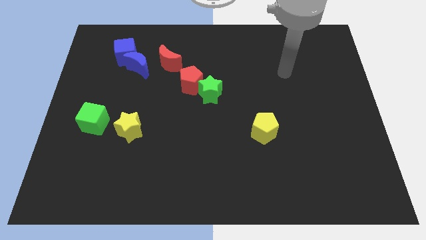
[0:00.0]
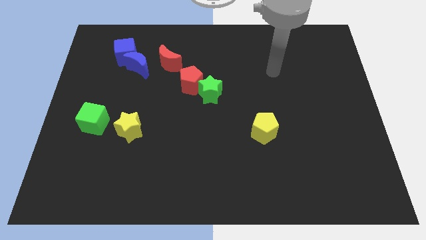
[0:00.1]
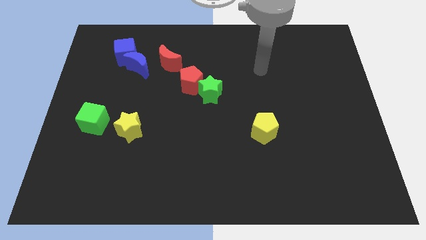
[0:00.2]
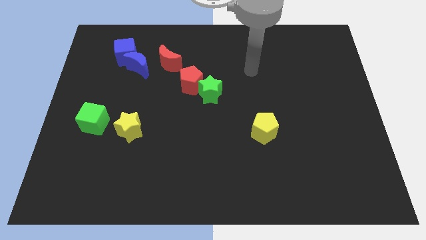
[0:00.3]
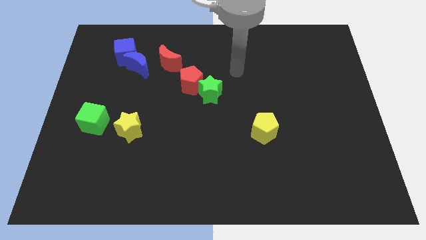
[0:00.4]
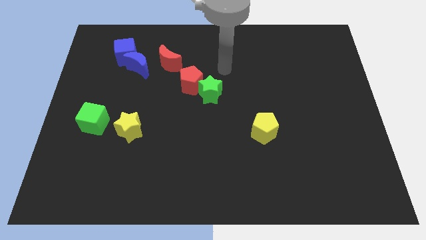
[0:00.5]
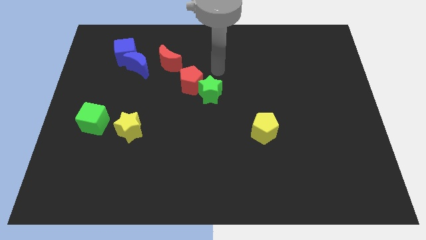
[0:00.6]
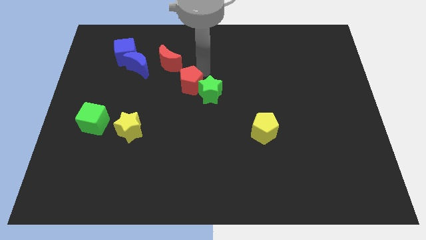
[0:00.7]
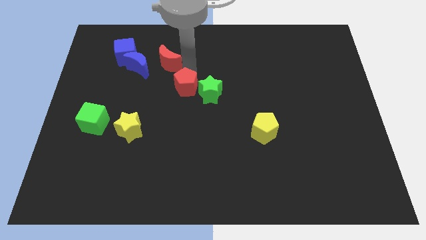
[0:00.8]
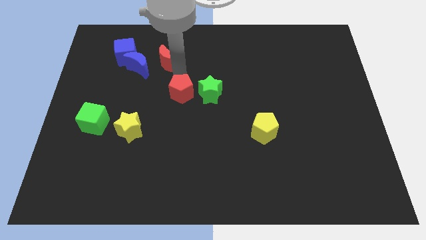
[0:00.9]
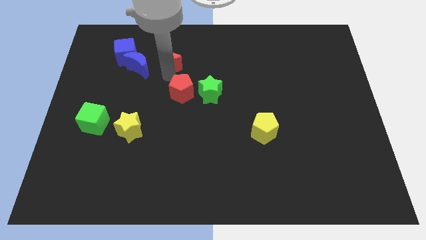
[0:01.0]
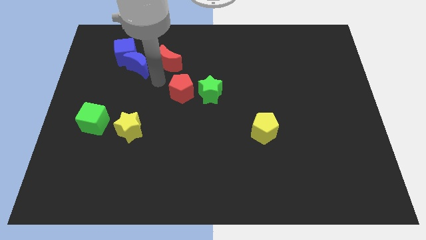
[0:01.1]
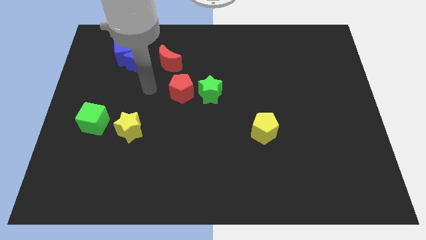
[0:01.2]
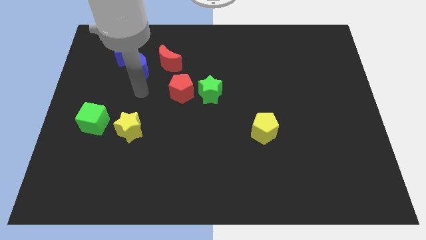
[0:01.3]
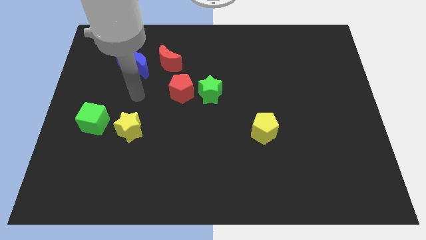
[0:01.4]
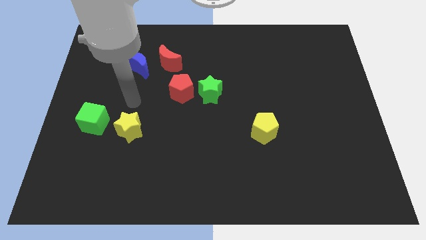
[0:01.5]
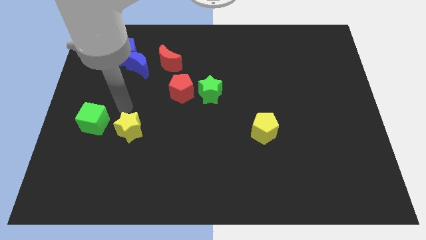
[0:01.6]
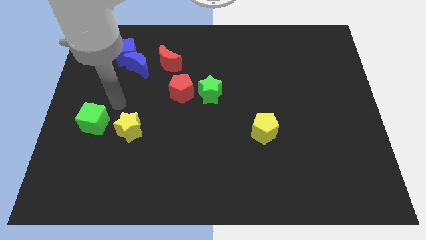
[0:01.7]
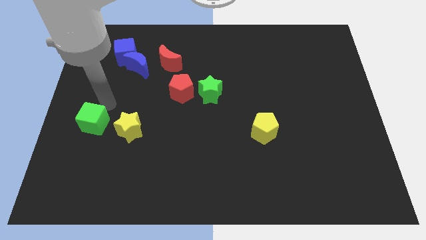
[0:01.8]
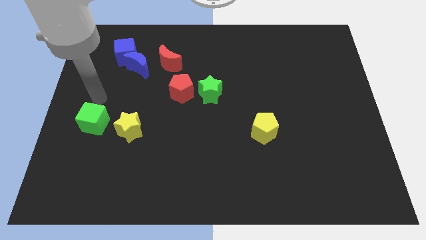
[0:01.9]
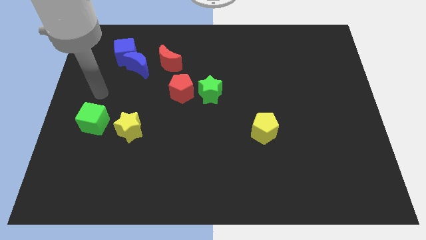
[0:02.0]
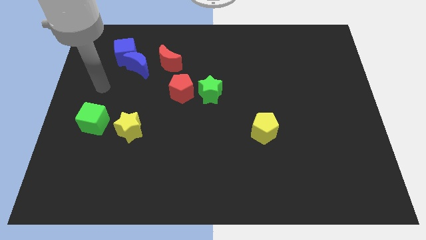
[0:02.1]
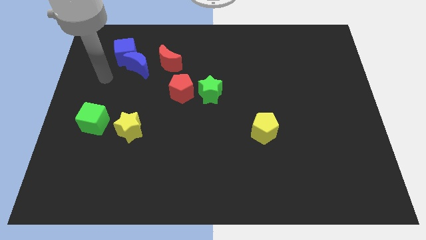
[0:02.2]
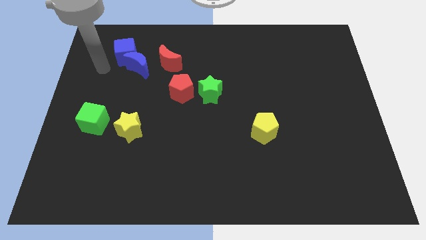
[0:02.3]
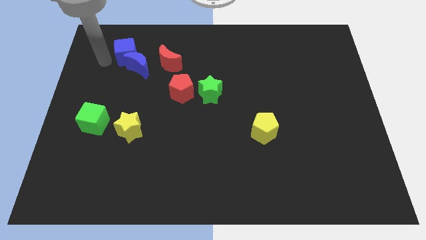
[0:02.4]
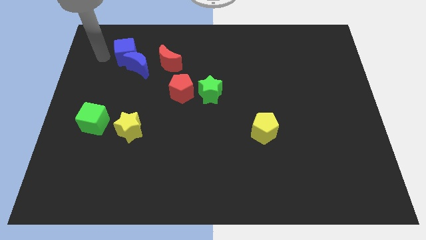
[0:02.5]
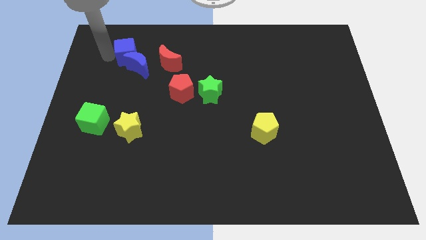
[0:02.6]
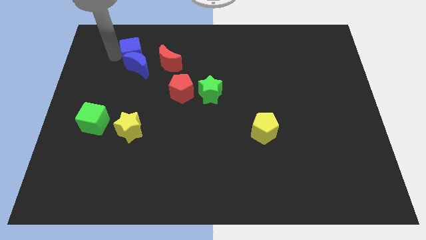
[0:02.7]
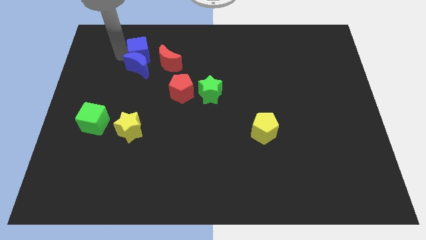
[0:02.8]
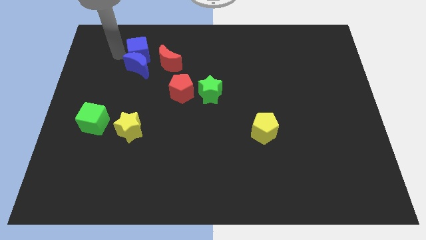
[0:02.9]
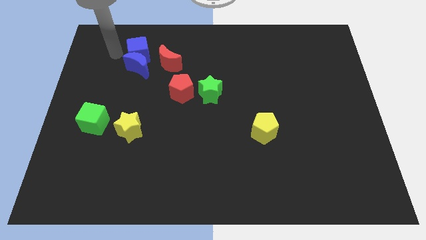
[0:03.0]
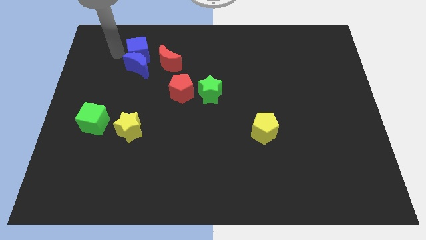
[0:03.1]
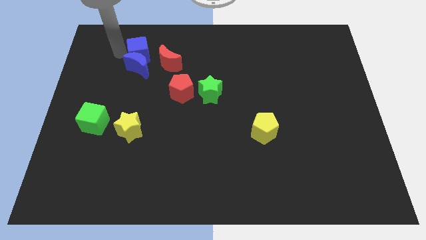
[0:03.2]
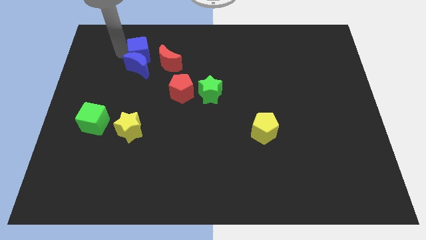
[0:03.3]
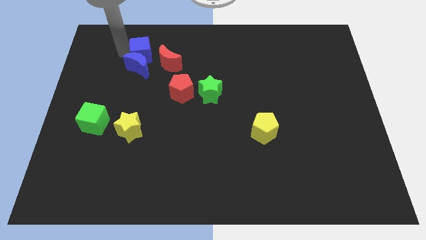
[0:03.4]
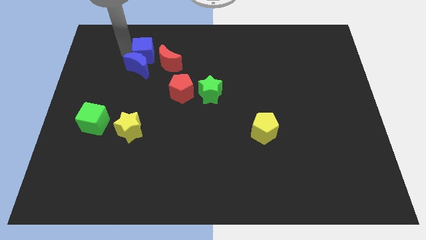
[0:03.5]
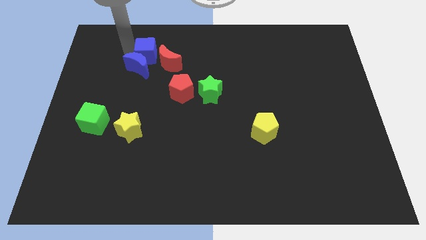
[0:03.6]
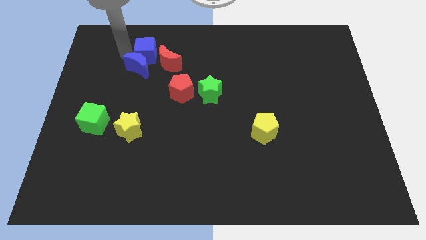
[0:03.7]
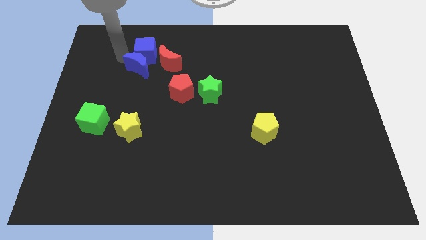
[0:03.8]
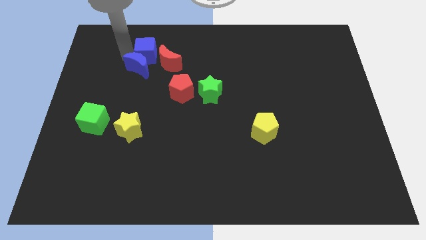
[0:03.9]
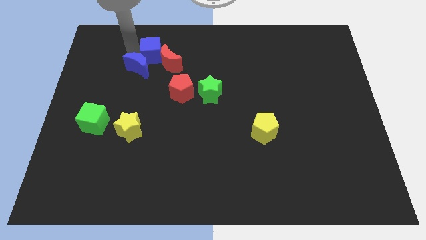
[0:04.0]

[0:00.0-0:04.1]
slide the blue cube right a little

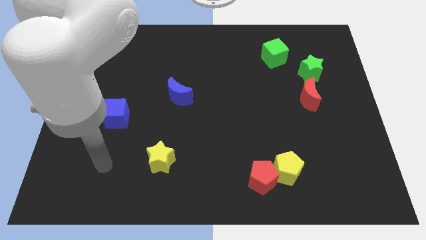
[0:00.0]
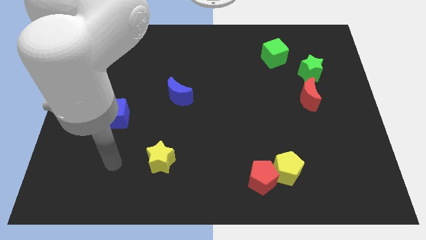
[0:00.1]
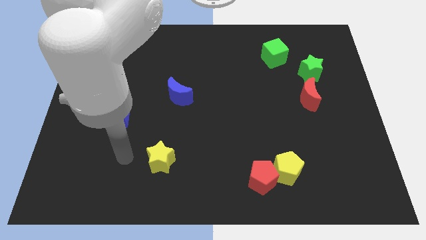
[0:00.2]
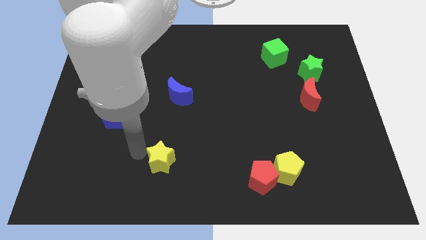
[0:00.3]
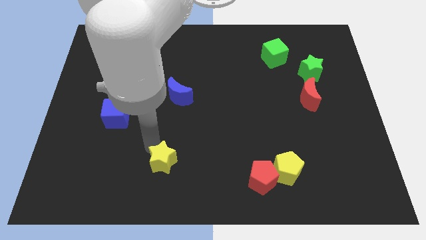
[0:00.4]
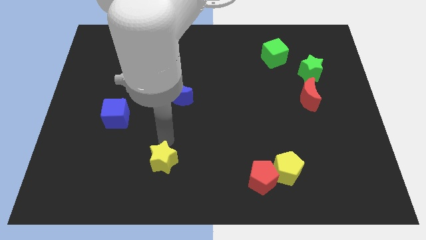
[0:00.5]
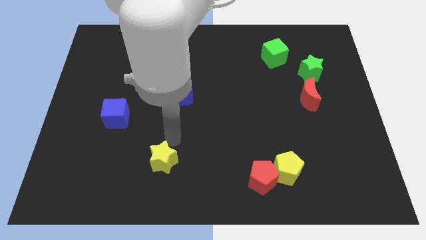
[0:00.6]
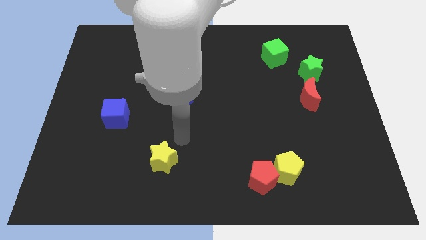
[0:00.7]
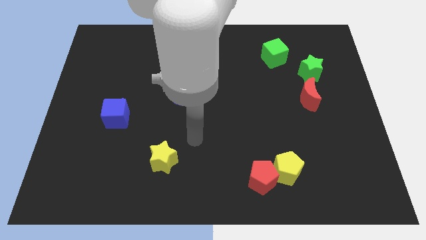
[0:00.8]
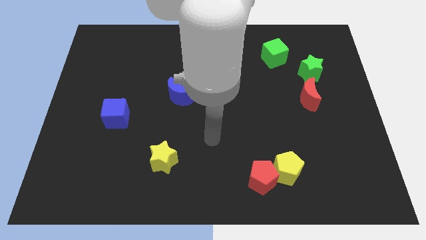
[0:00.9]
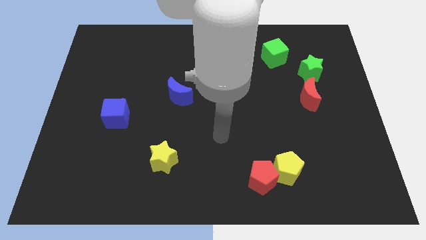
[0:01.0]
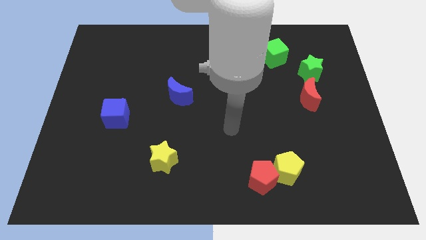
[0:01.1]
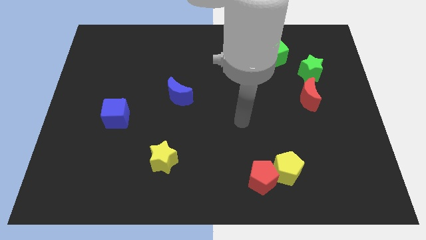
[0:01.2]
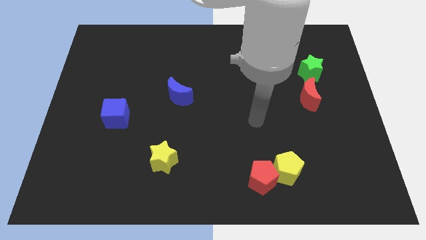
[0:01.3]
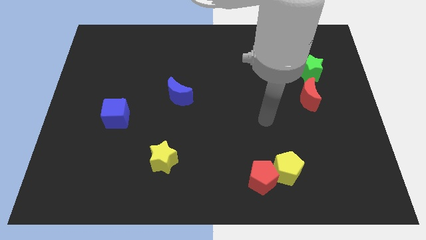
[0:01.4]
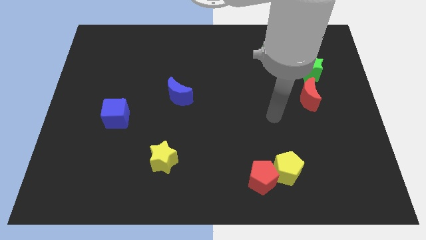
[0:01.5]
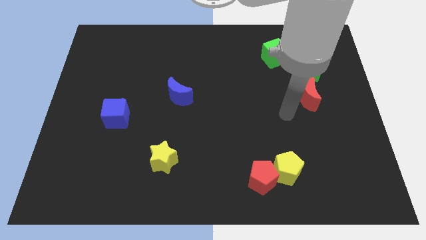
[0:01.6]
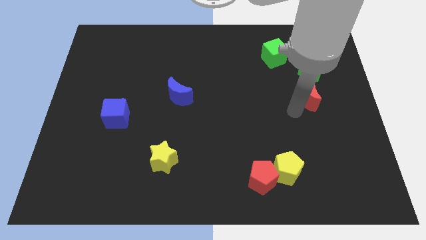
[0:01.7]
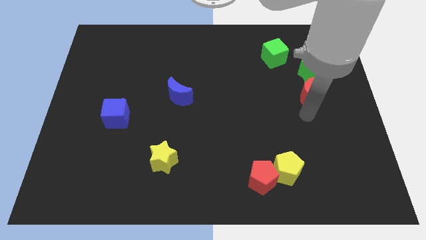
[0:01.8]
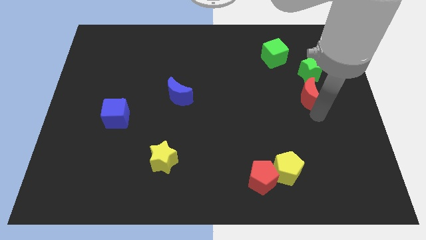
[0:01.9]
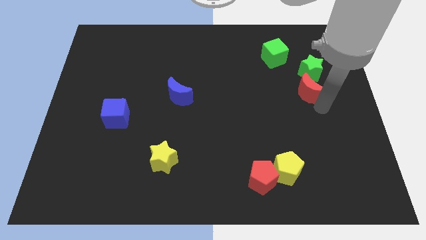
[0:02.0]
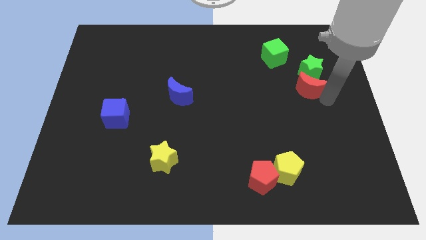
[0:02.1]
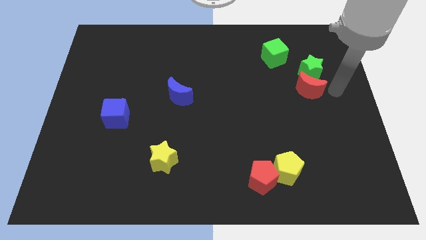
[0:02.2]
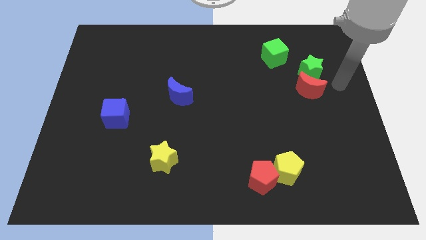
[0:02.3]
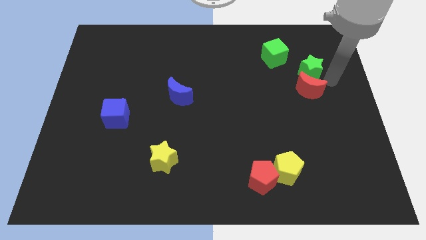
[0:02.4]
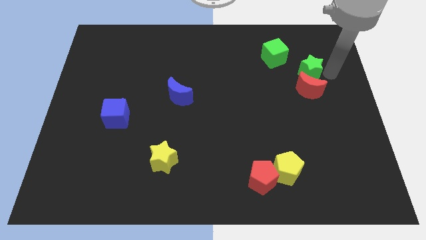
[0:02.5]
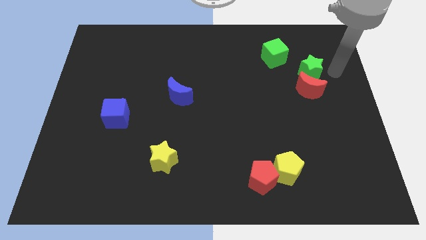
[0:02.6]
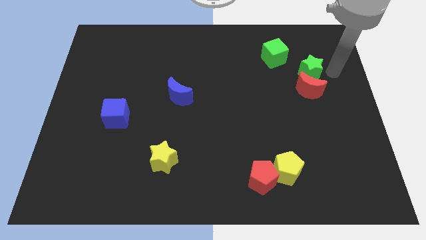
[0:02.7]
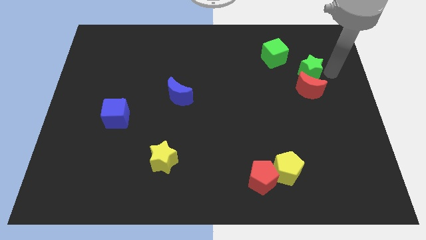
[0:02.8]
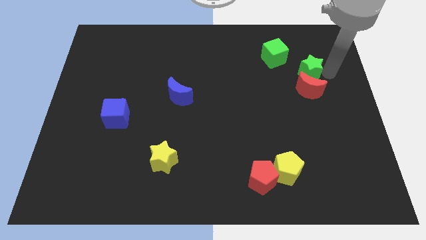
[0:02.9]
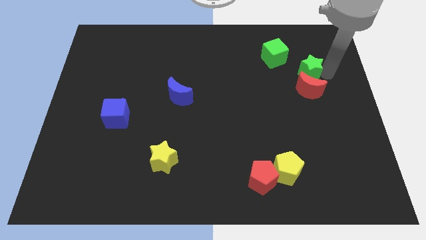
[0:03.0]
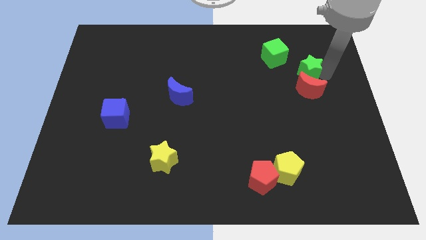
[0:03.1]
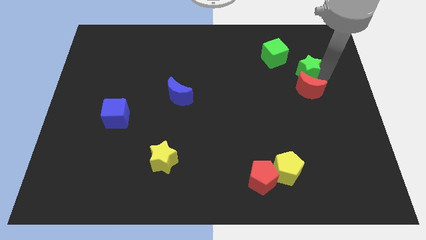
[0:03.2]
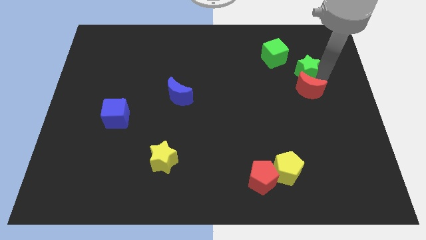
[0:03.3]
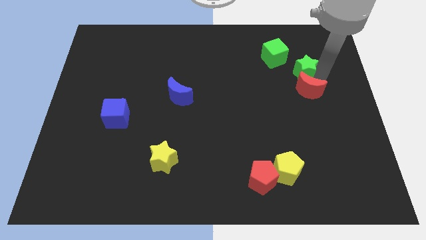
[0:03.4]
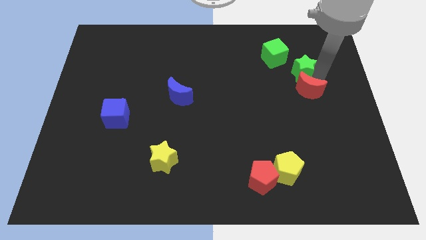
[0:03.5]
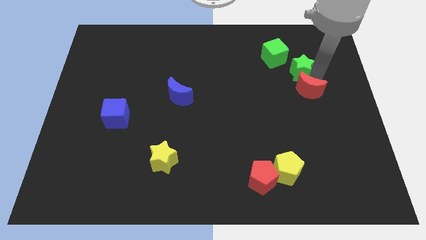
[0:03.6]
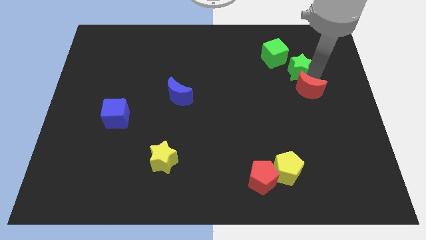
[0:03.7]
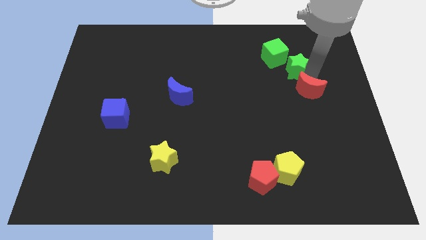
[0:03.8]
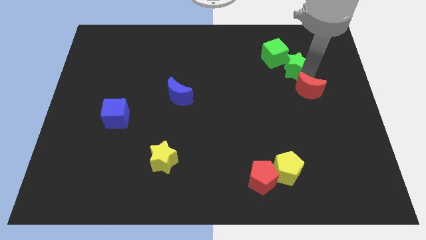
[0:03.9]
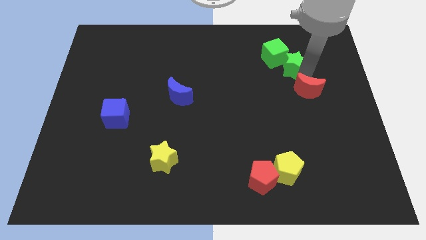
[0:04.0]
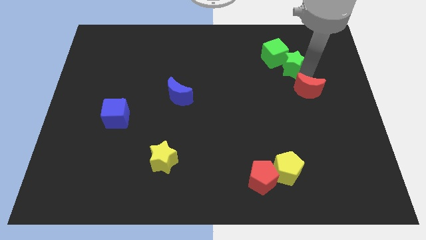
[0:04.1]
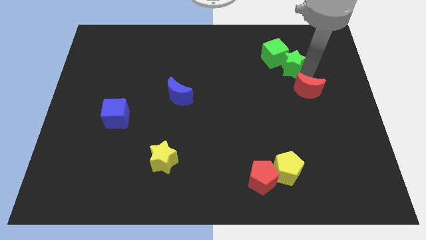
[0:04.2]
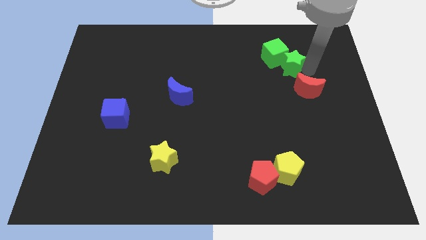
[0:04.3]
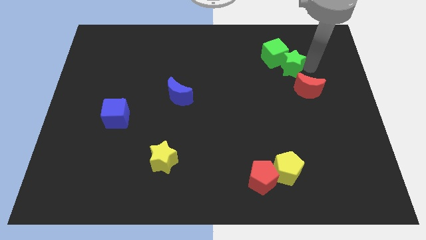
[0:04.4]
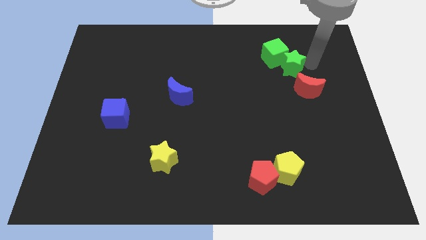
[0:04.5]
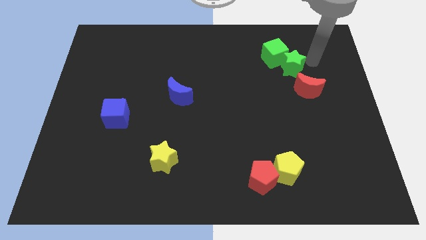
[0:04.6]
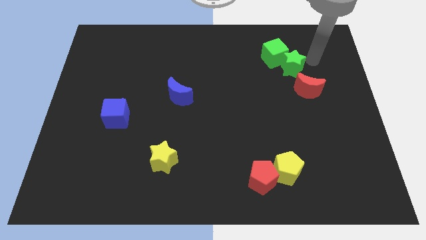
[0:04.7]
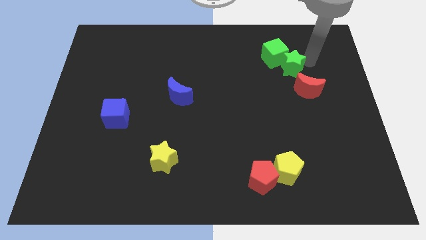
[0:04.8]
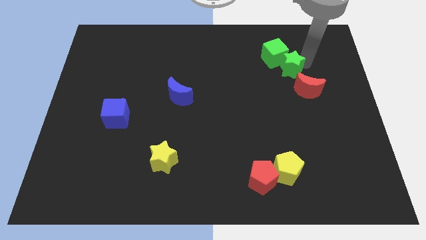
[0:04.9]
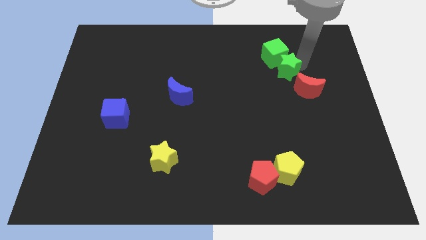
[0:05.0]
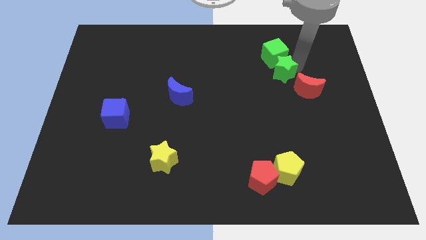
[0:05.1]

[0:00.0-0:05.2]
move the green star slightly to the left
